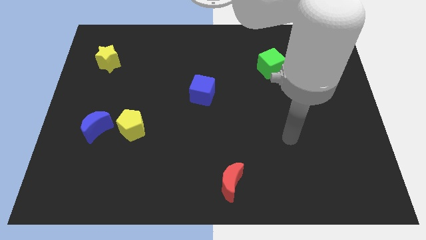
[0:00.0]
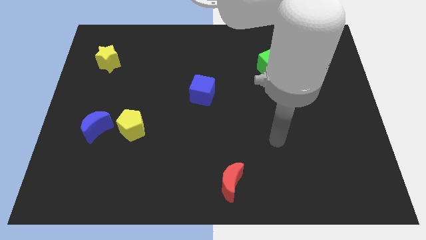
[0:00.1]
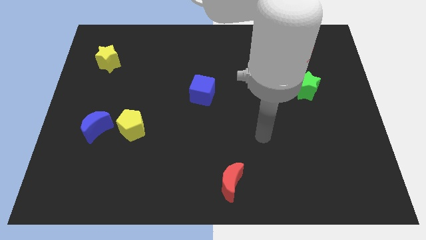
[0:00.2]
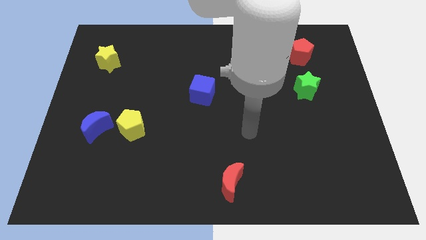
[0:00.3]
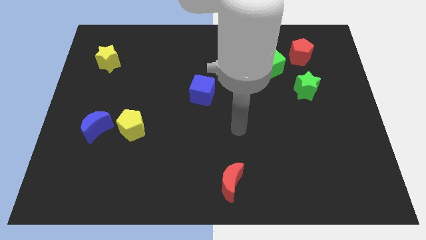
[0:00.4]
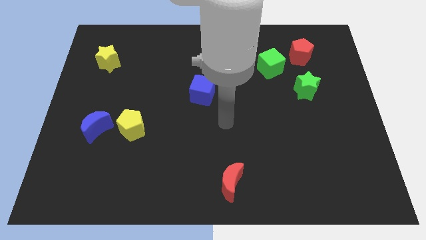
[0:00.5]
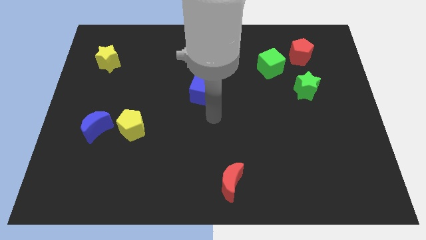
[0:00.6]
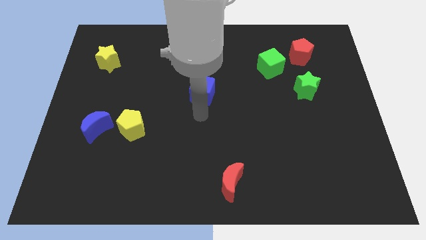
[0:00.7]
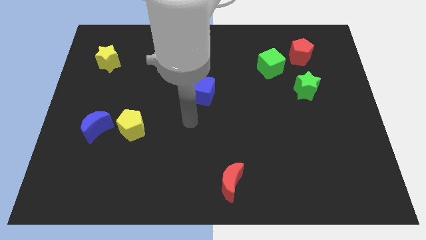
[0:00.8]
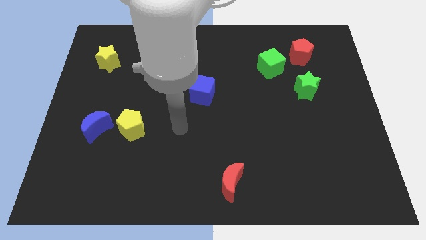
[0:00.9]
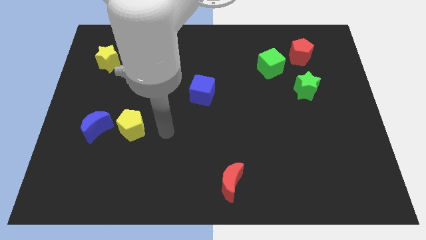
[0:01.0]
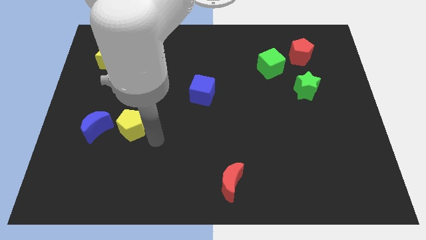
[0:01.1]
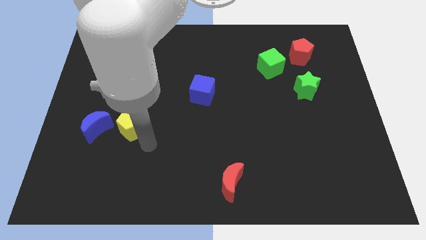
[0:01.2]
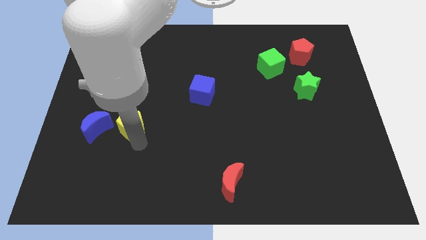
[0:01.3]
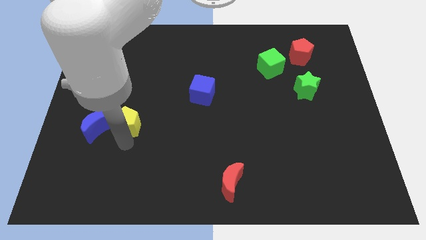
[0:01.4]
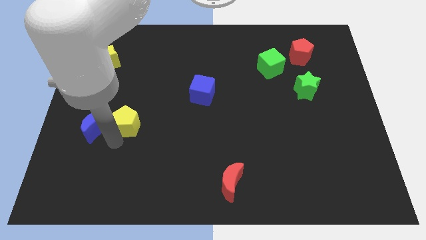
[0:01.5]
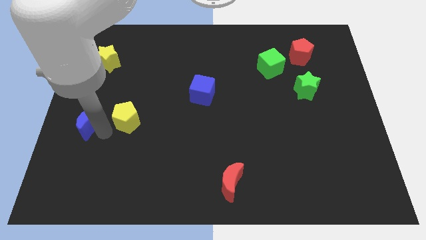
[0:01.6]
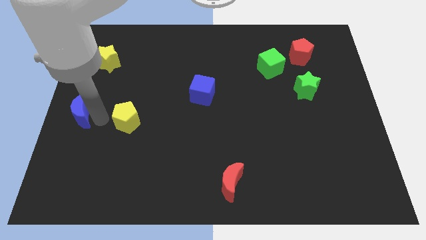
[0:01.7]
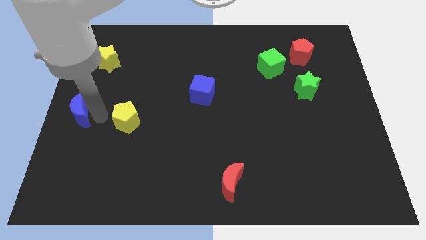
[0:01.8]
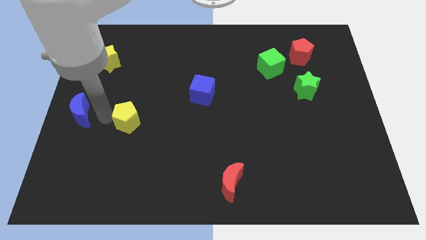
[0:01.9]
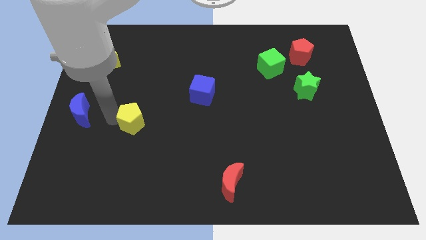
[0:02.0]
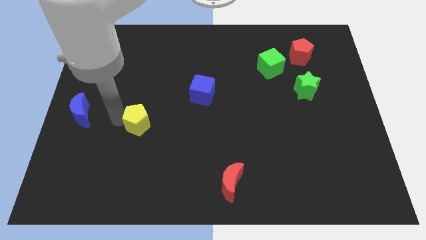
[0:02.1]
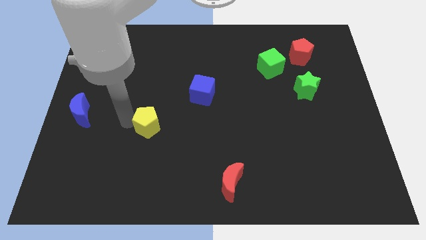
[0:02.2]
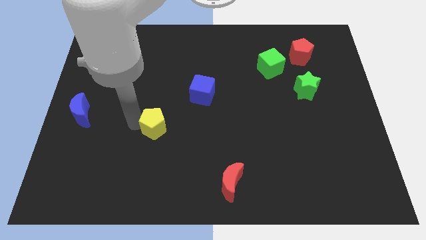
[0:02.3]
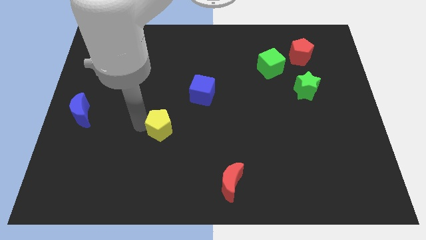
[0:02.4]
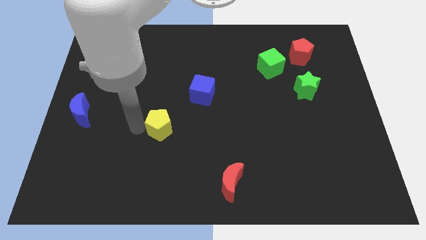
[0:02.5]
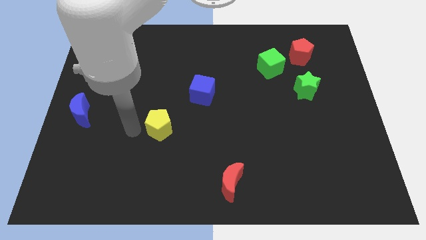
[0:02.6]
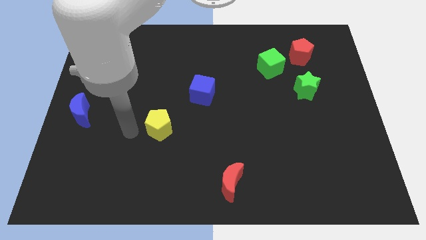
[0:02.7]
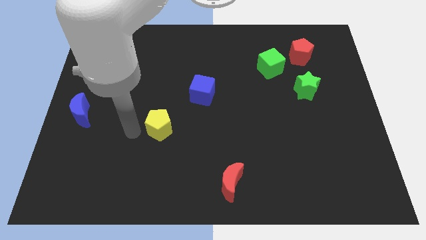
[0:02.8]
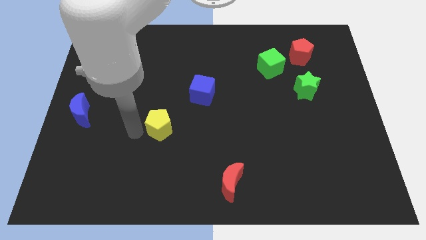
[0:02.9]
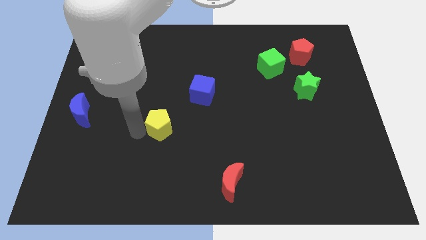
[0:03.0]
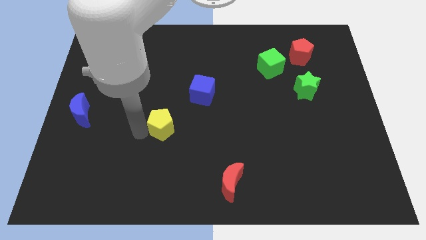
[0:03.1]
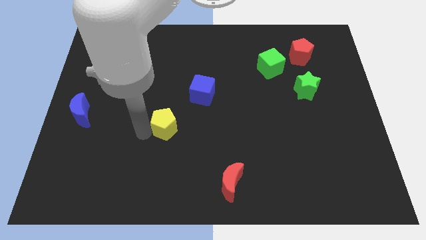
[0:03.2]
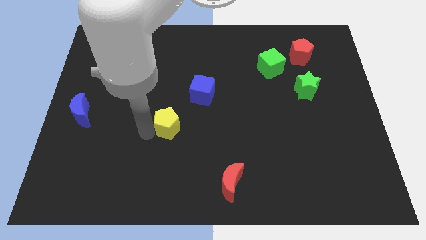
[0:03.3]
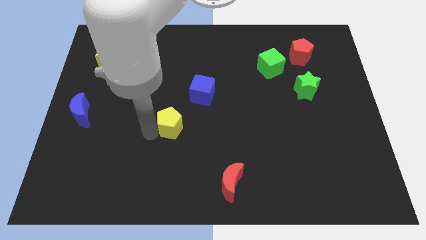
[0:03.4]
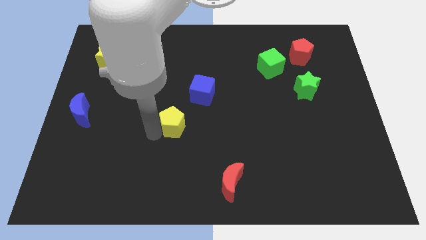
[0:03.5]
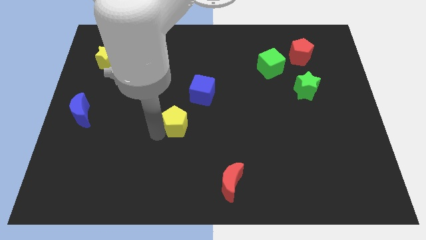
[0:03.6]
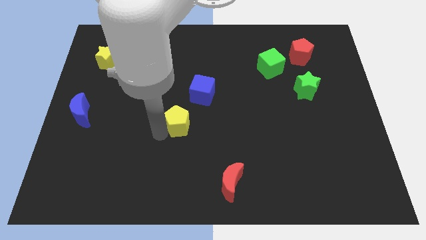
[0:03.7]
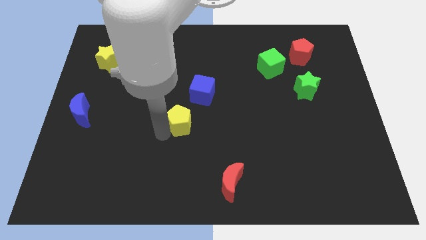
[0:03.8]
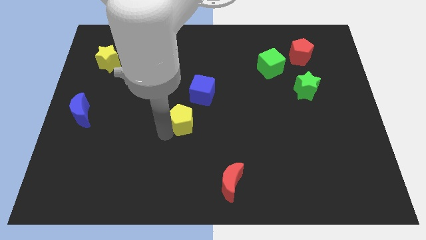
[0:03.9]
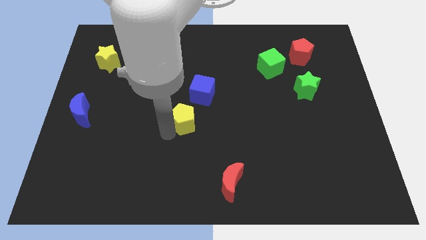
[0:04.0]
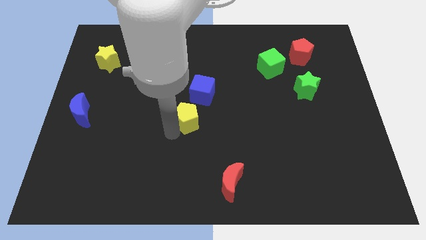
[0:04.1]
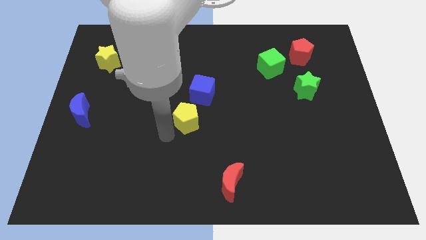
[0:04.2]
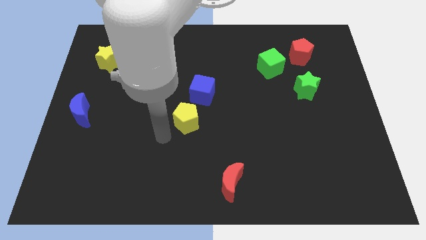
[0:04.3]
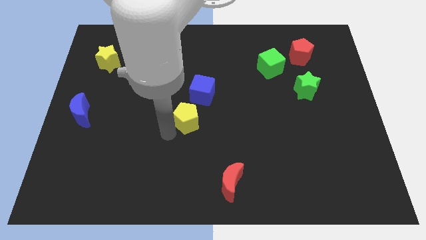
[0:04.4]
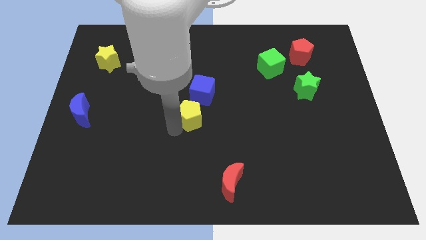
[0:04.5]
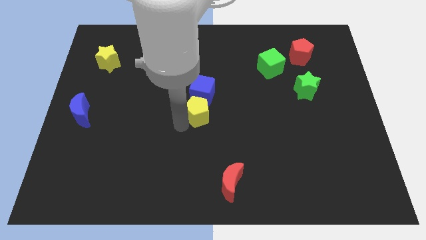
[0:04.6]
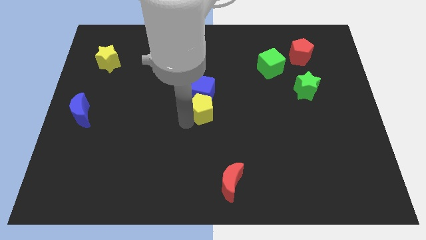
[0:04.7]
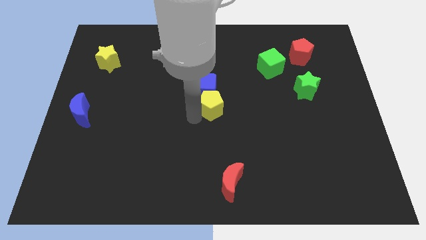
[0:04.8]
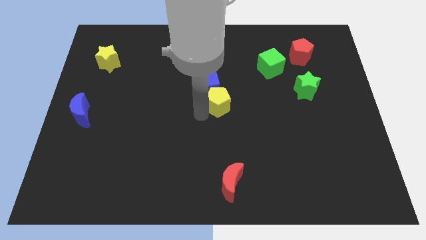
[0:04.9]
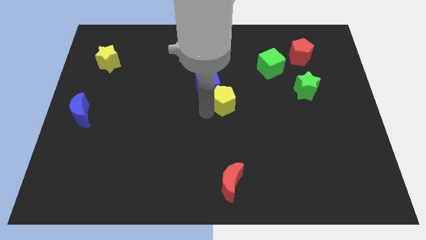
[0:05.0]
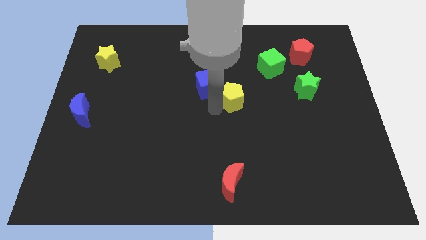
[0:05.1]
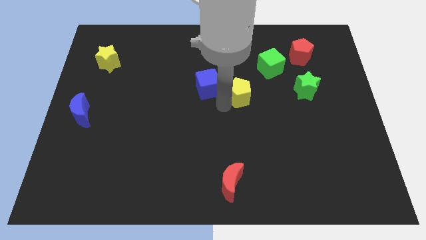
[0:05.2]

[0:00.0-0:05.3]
push the yellow pentagon to the bottom left of the green cube

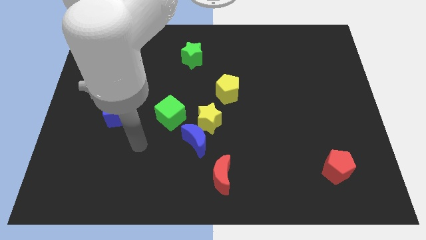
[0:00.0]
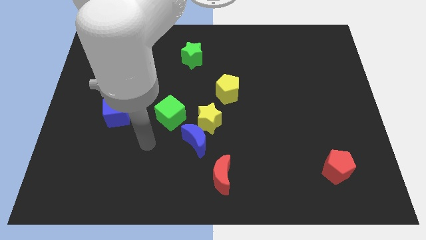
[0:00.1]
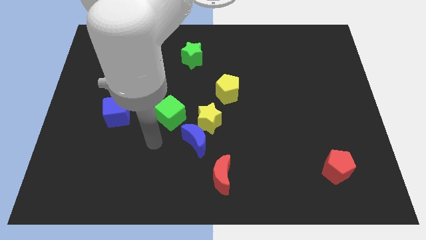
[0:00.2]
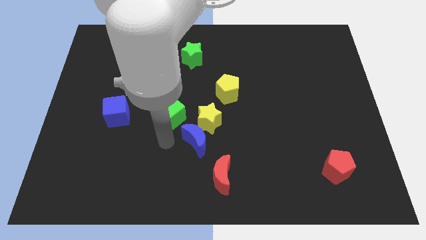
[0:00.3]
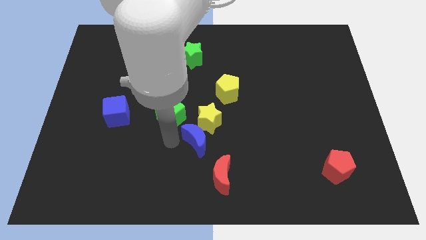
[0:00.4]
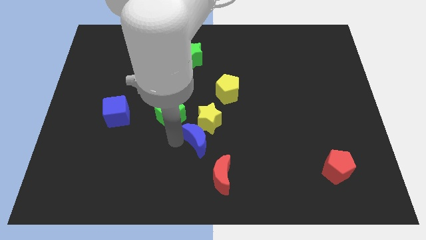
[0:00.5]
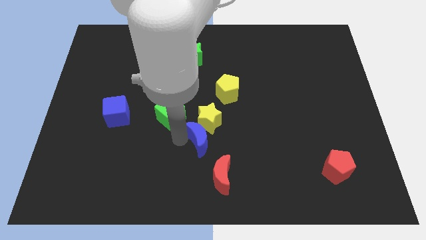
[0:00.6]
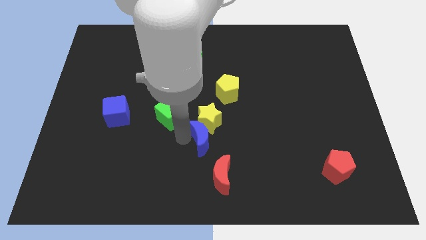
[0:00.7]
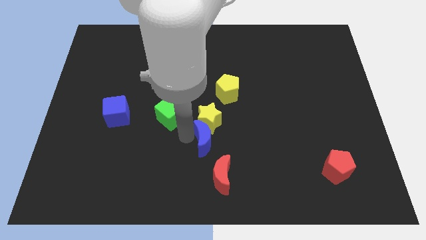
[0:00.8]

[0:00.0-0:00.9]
put the blue moon diagonally down and to the right of the yellow star
